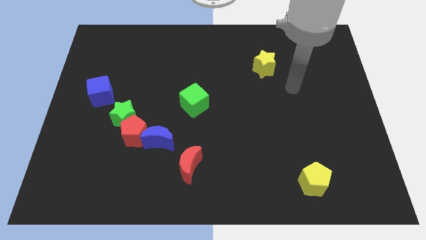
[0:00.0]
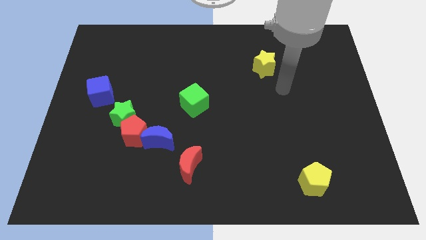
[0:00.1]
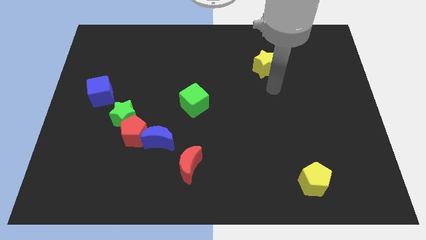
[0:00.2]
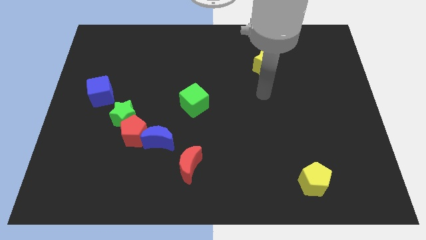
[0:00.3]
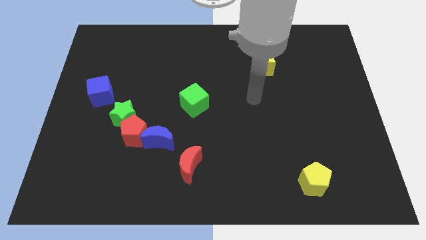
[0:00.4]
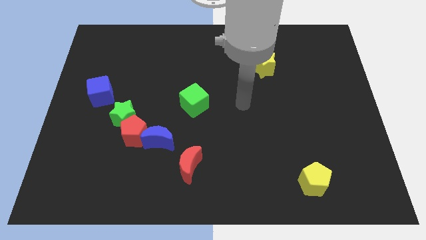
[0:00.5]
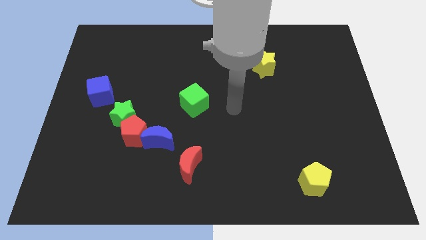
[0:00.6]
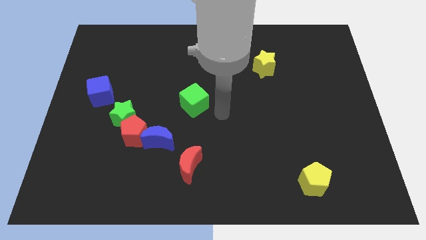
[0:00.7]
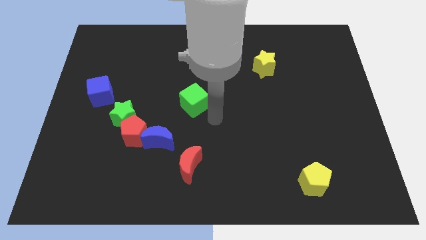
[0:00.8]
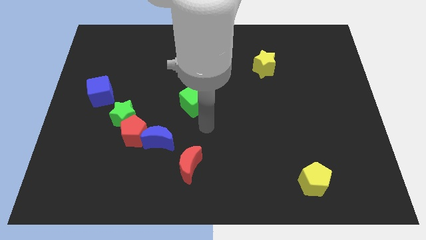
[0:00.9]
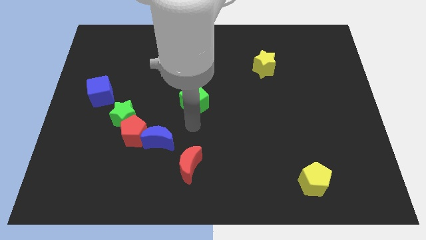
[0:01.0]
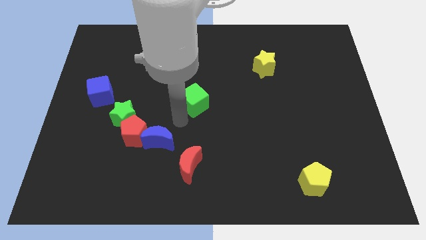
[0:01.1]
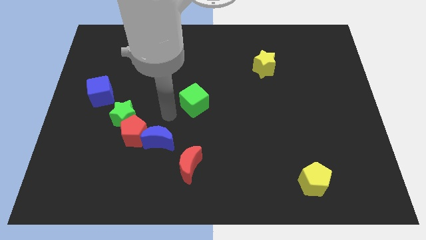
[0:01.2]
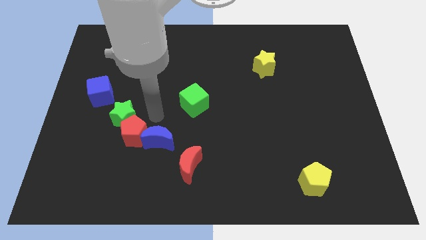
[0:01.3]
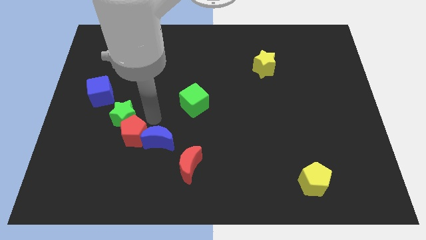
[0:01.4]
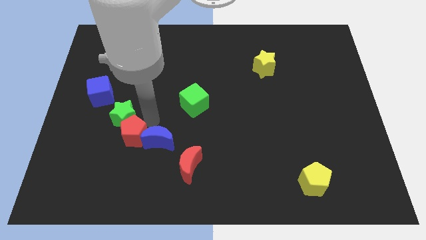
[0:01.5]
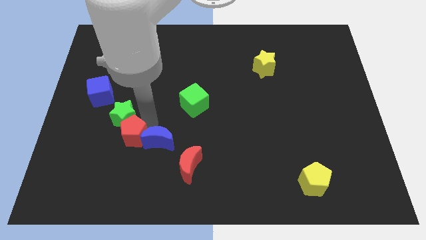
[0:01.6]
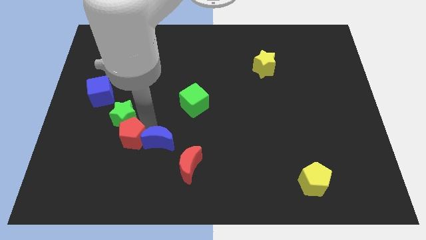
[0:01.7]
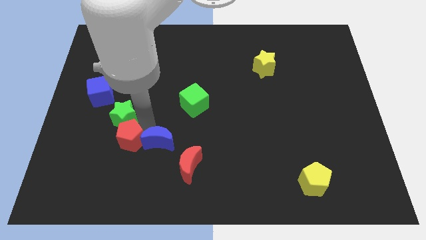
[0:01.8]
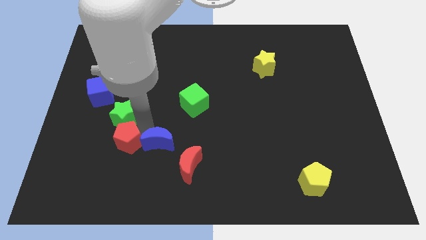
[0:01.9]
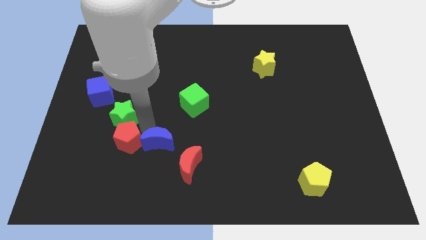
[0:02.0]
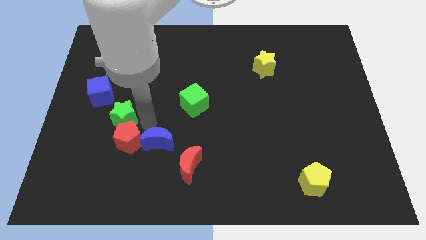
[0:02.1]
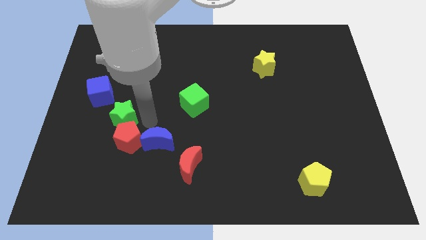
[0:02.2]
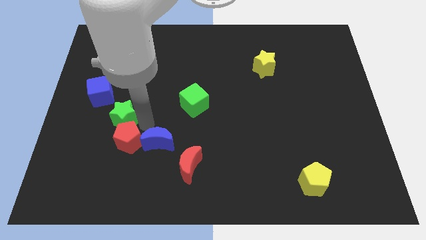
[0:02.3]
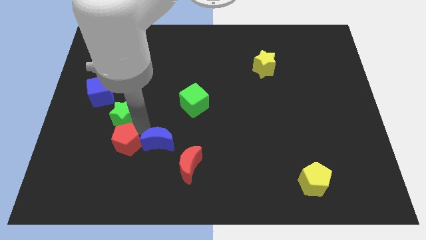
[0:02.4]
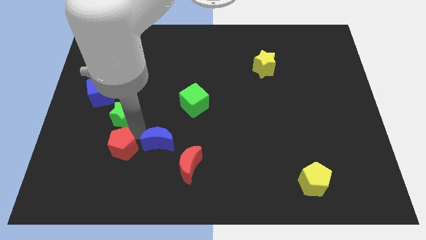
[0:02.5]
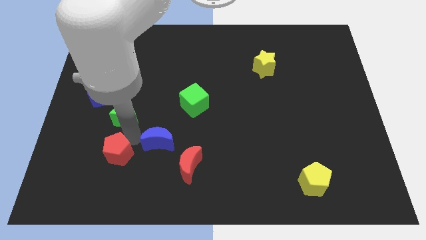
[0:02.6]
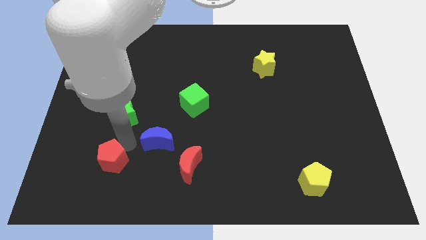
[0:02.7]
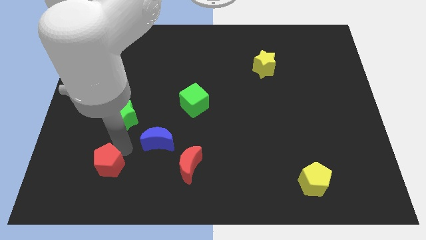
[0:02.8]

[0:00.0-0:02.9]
separate the red pentagon from the blue moon and green star

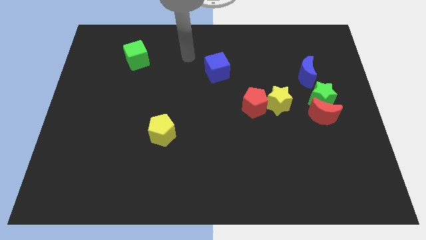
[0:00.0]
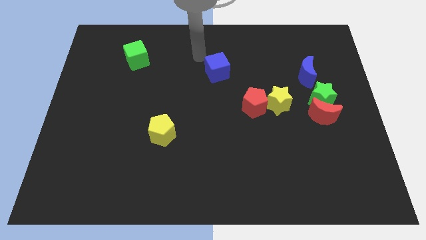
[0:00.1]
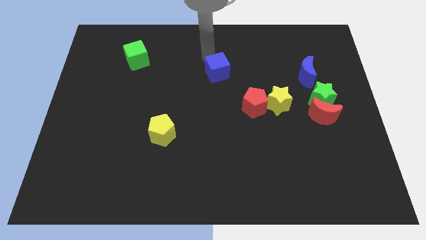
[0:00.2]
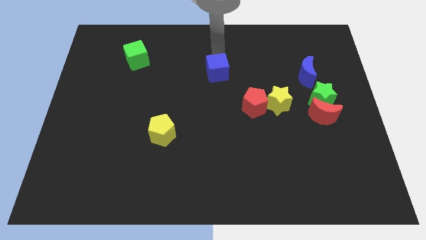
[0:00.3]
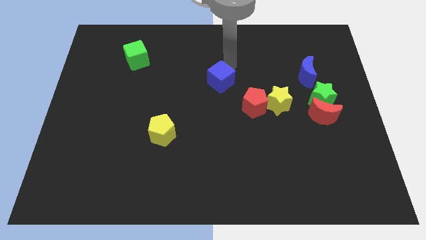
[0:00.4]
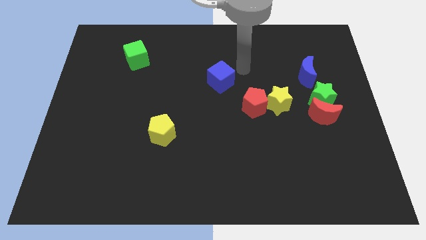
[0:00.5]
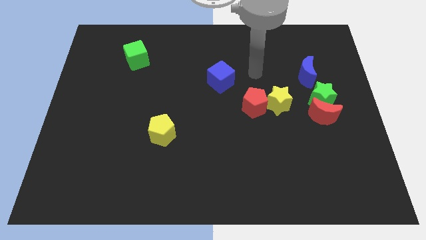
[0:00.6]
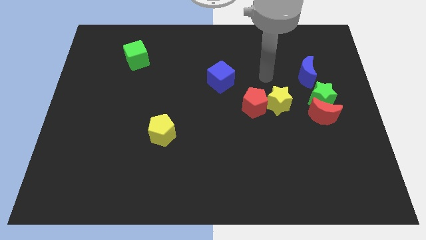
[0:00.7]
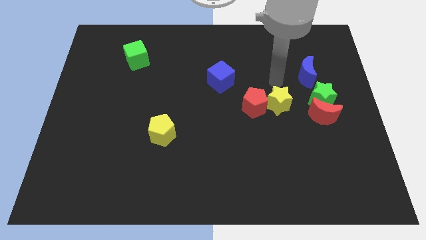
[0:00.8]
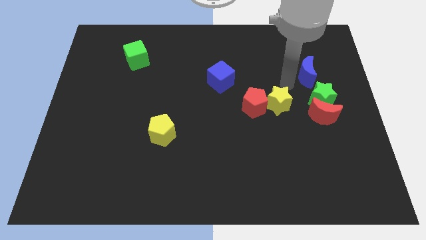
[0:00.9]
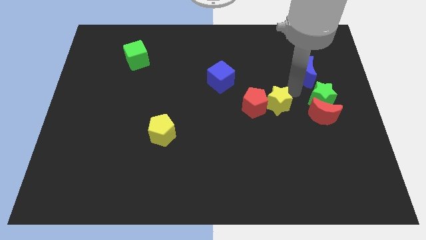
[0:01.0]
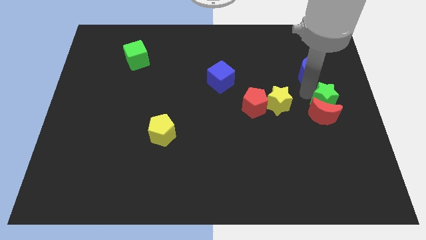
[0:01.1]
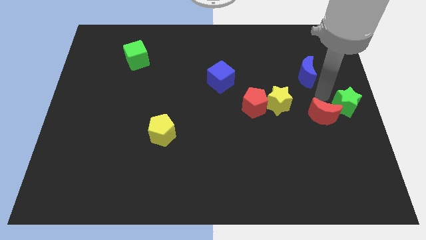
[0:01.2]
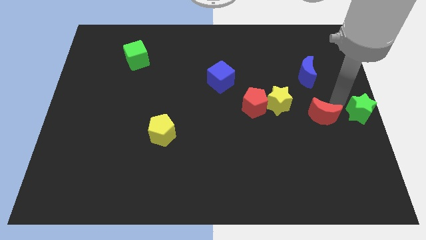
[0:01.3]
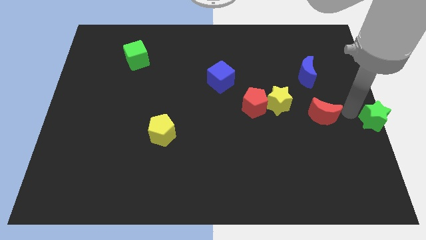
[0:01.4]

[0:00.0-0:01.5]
pull the red moon apart from the green star

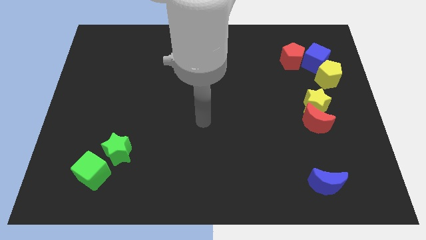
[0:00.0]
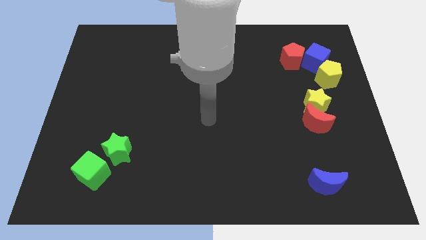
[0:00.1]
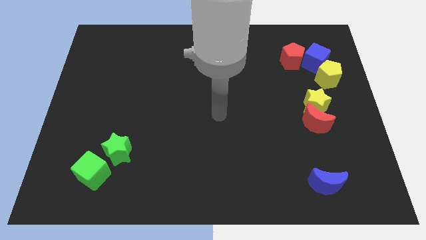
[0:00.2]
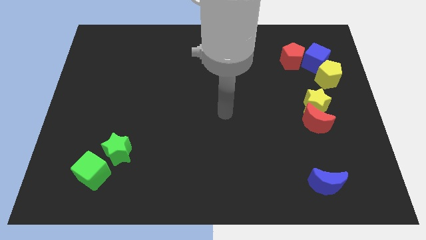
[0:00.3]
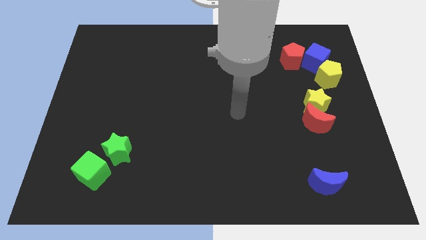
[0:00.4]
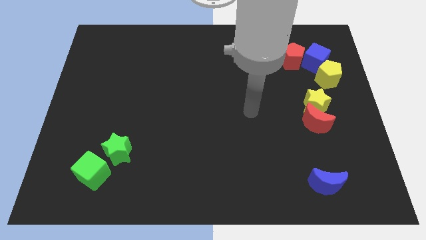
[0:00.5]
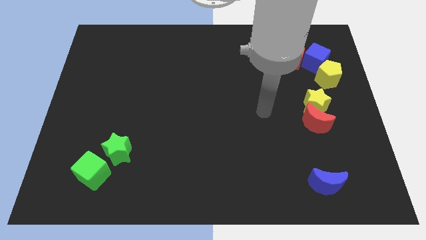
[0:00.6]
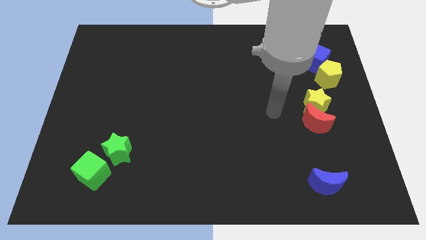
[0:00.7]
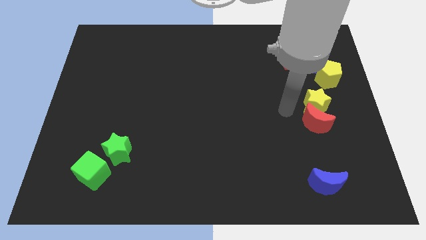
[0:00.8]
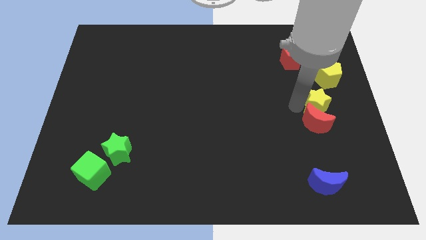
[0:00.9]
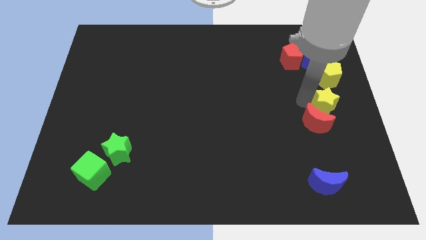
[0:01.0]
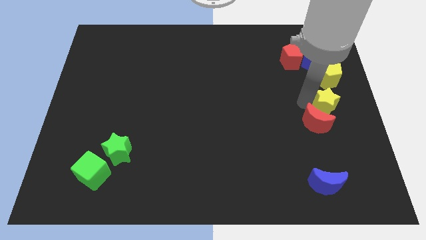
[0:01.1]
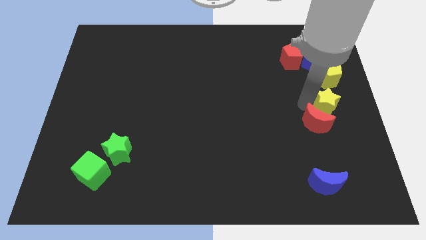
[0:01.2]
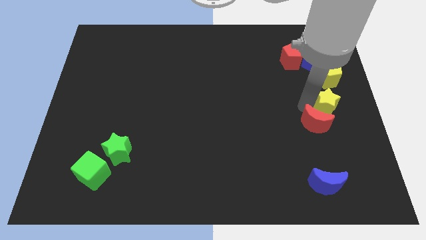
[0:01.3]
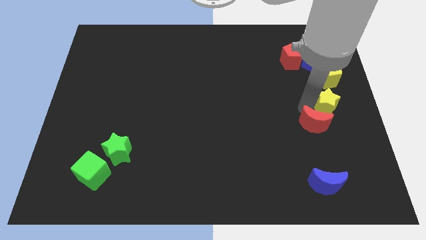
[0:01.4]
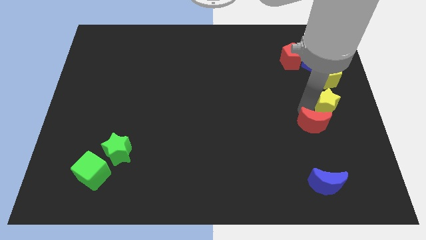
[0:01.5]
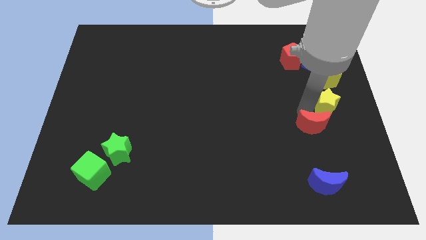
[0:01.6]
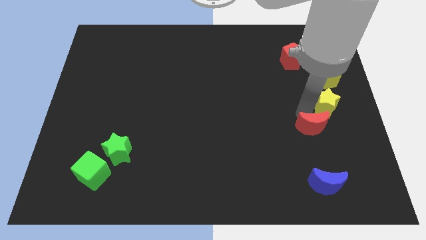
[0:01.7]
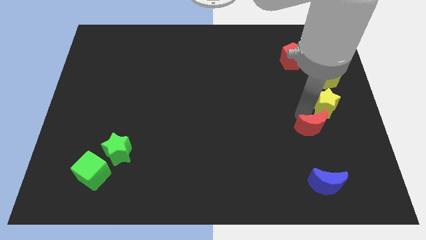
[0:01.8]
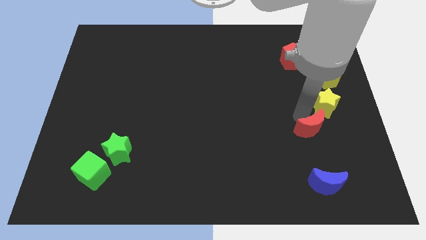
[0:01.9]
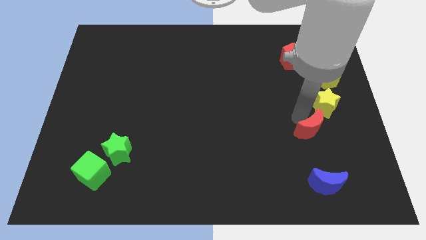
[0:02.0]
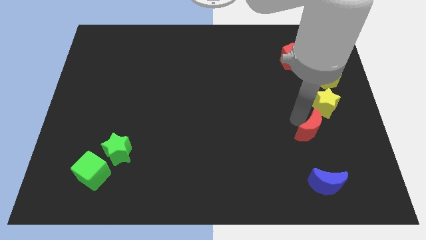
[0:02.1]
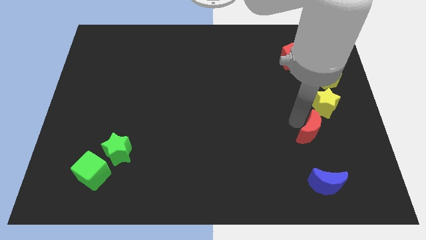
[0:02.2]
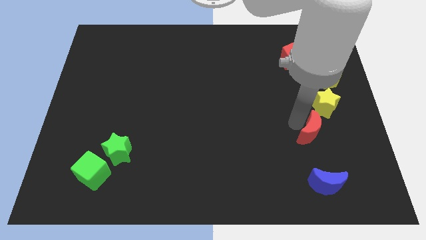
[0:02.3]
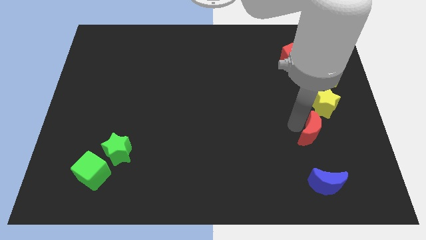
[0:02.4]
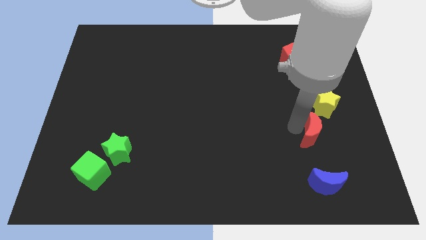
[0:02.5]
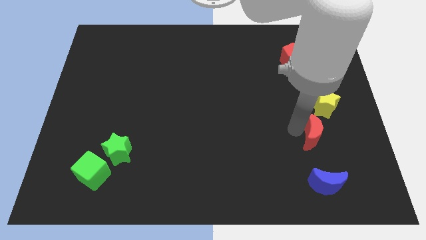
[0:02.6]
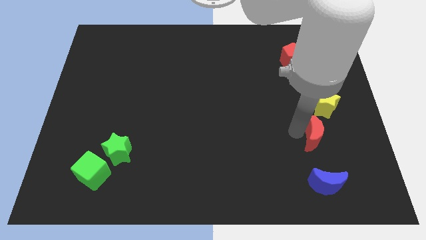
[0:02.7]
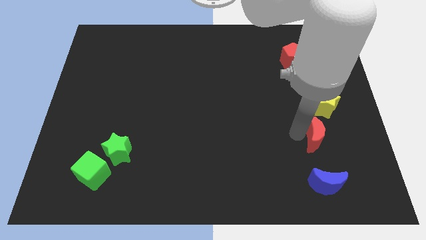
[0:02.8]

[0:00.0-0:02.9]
separate the red moon from the yellow star

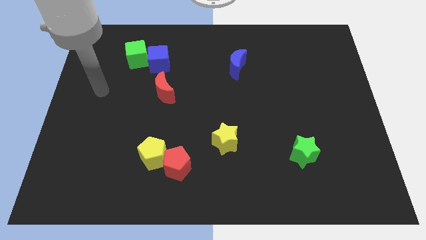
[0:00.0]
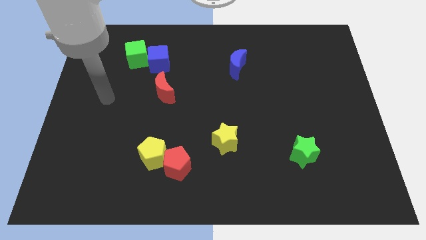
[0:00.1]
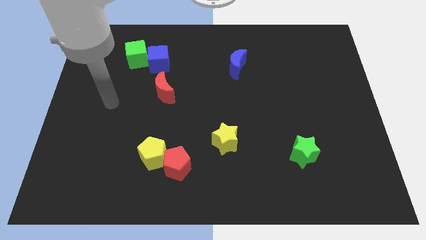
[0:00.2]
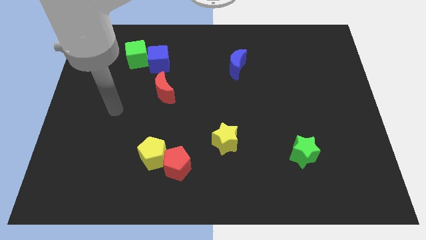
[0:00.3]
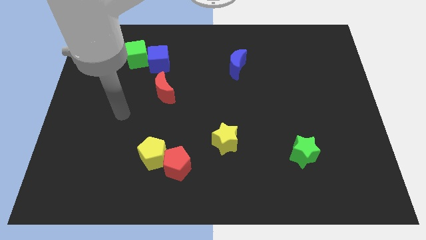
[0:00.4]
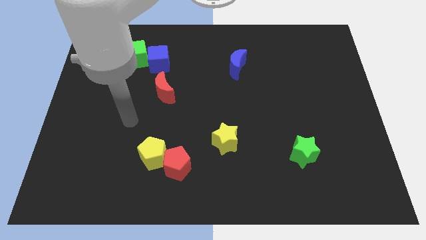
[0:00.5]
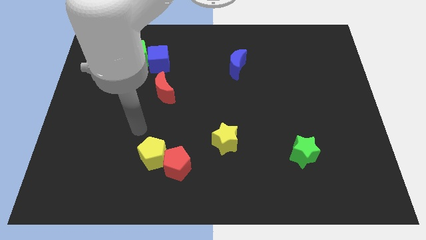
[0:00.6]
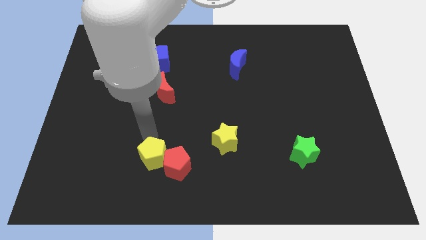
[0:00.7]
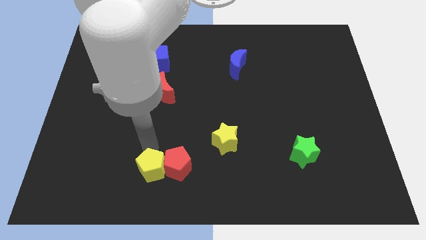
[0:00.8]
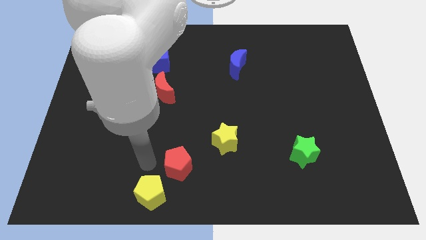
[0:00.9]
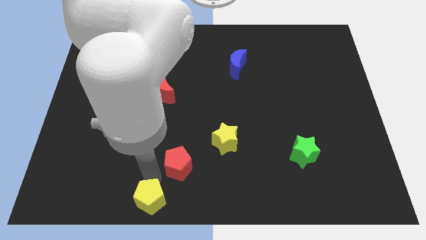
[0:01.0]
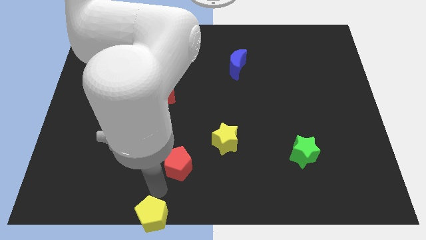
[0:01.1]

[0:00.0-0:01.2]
separate the red pentagon from the yellow pentagon

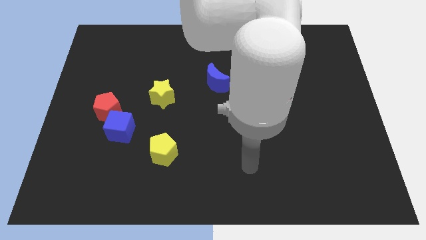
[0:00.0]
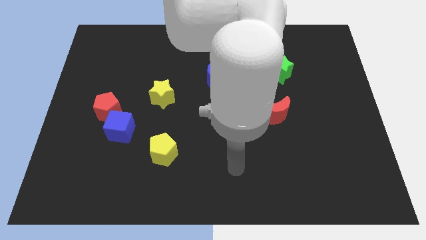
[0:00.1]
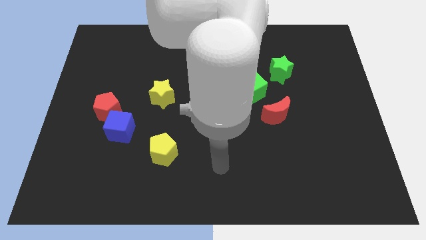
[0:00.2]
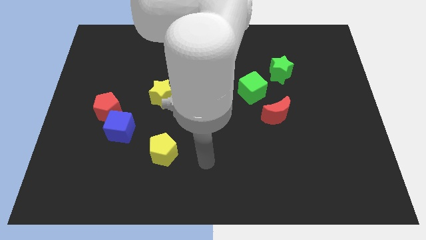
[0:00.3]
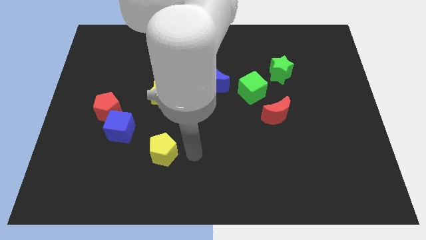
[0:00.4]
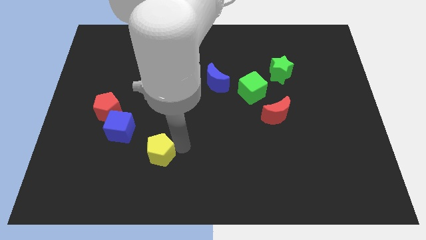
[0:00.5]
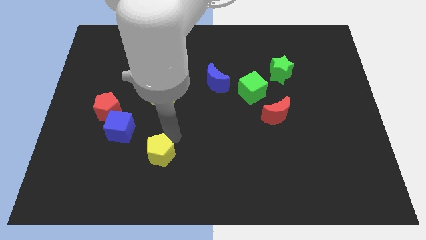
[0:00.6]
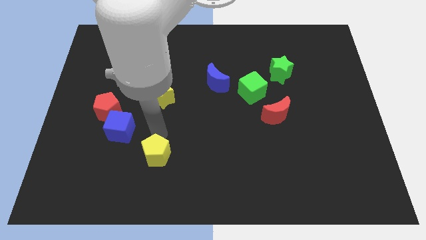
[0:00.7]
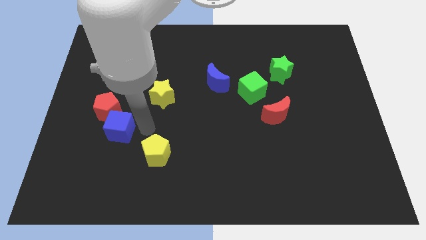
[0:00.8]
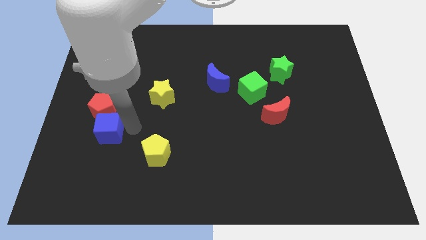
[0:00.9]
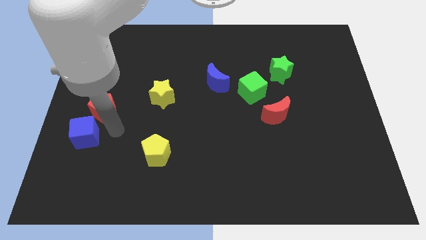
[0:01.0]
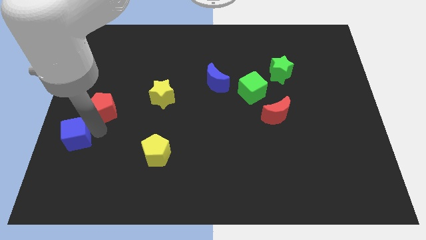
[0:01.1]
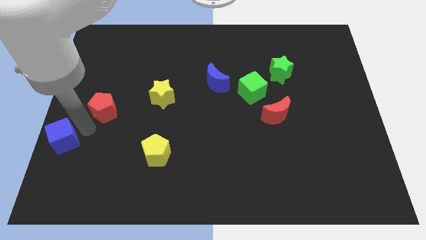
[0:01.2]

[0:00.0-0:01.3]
pull the red pentagon apart from the blue cube
